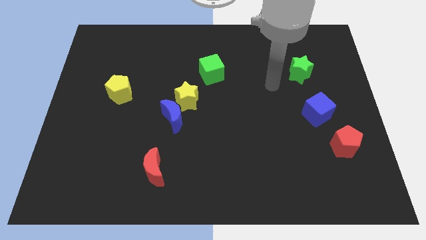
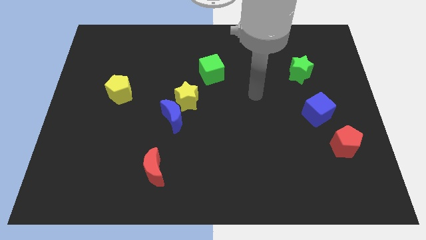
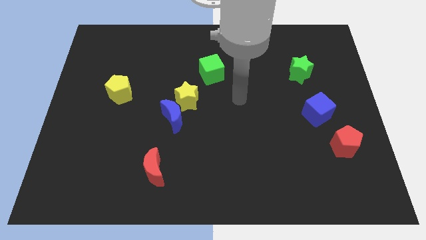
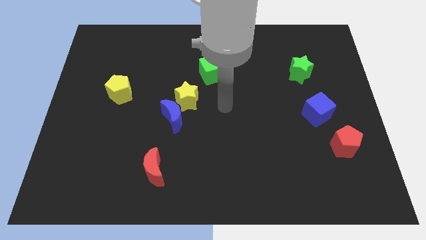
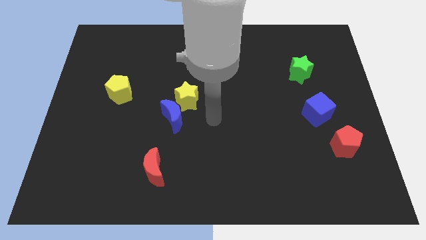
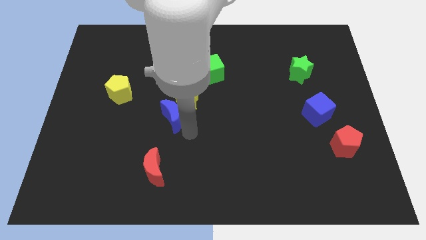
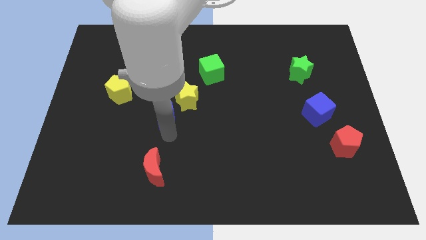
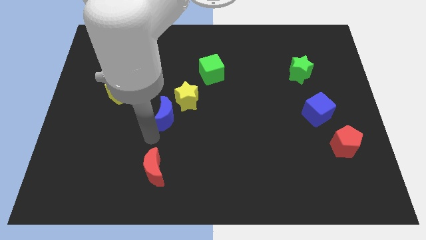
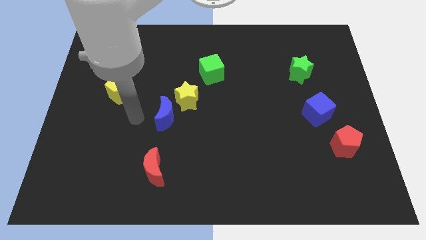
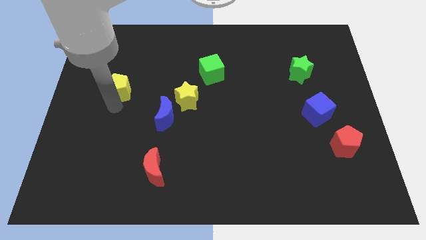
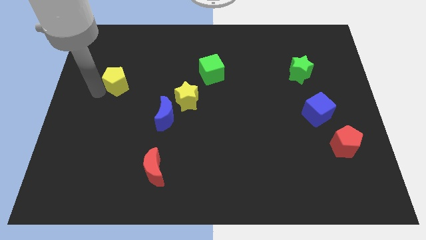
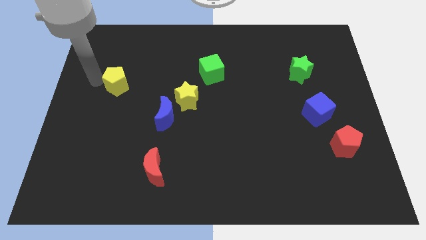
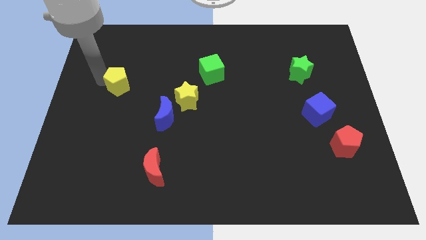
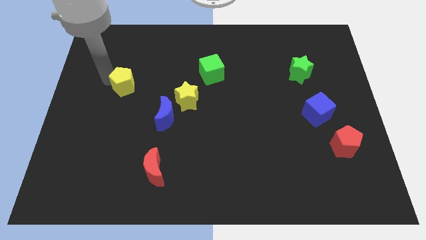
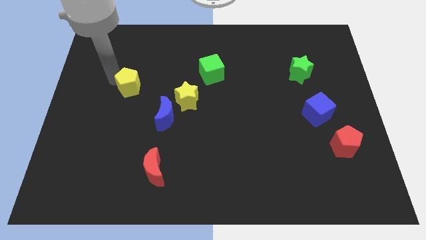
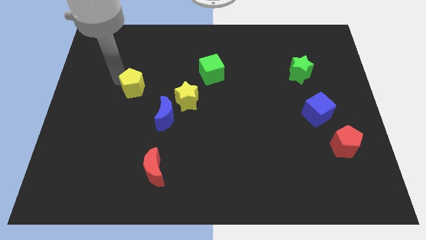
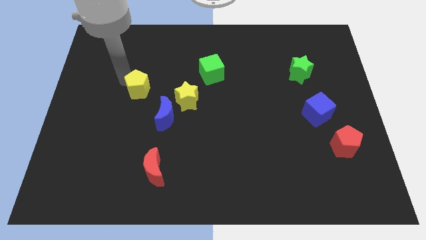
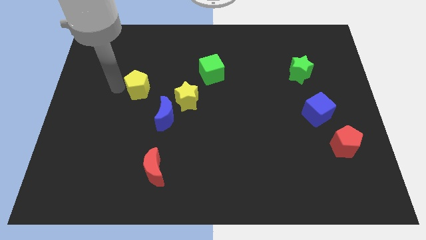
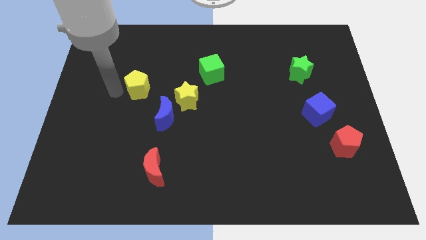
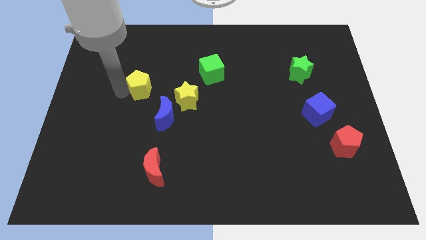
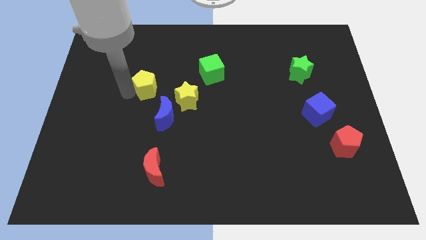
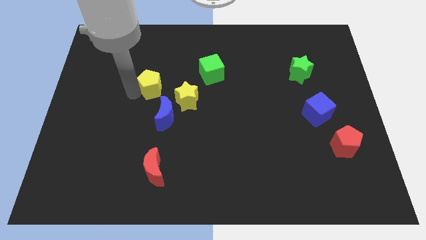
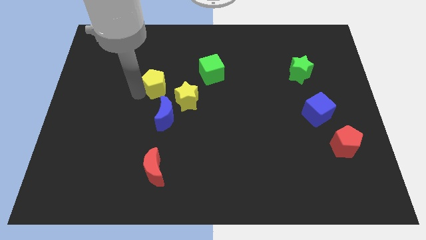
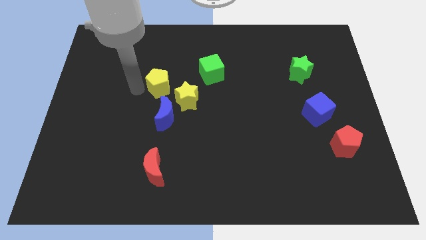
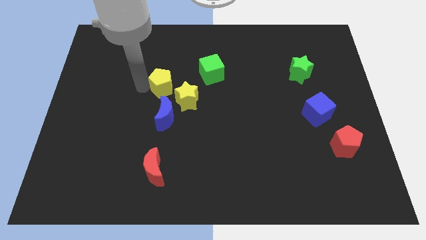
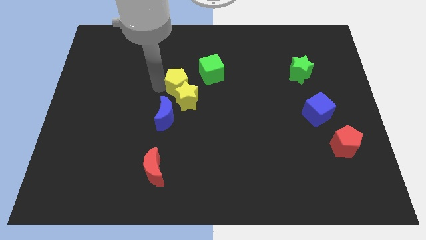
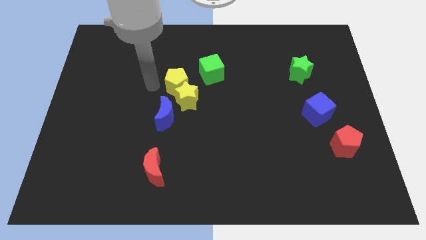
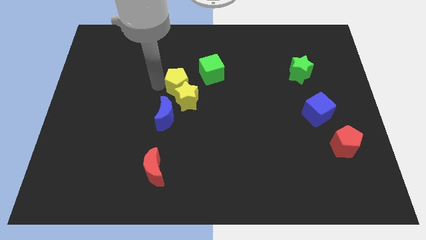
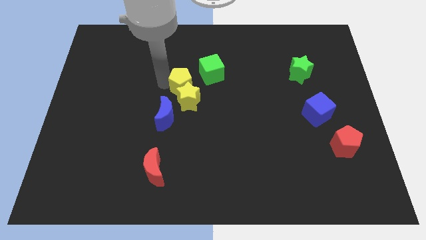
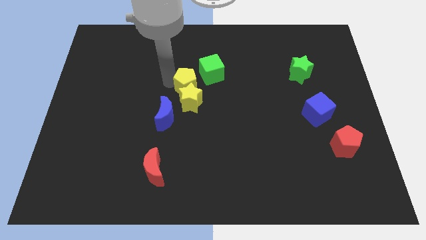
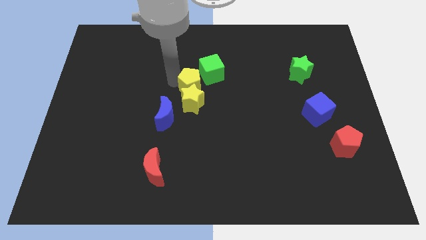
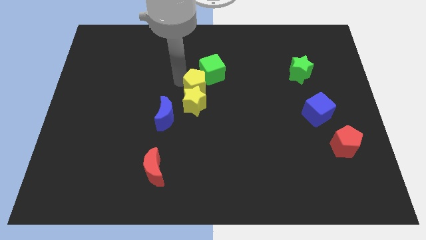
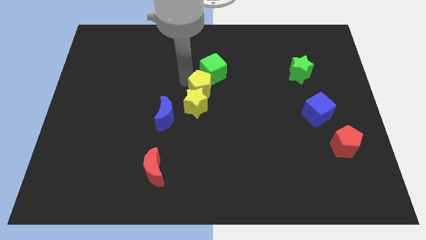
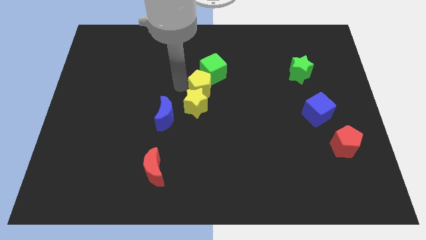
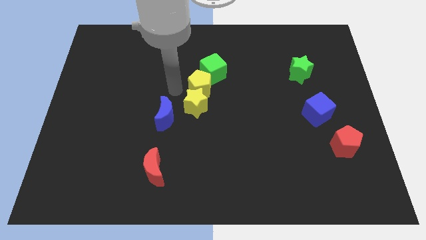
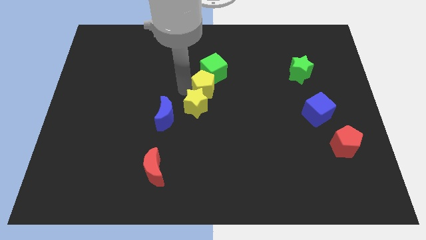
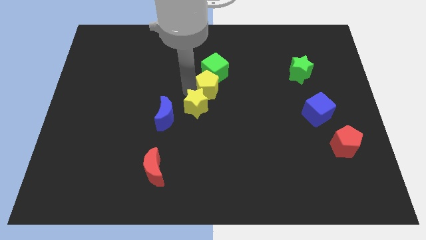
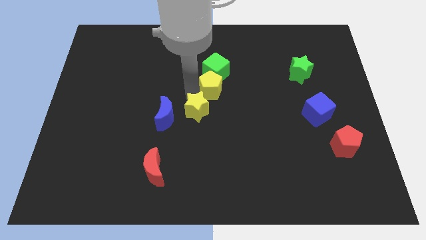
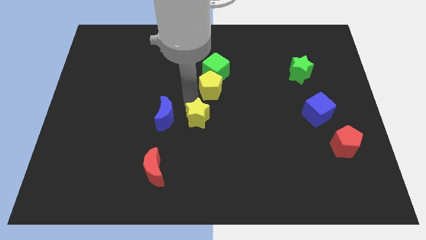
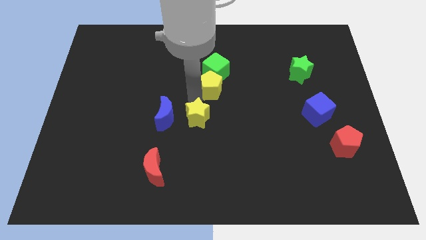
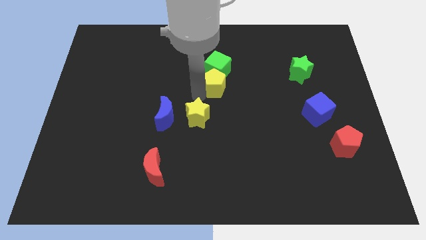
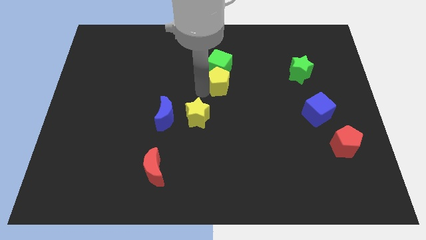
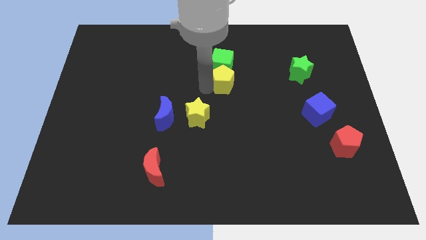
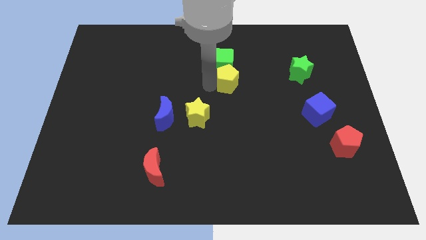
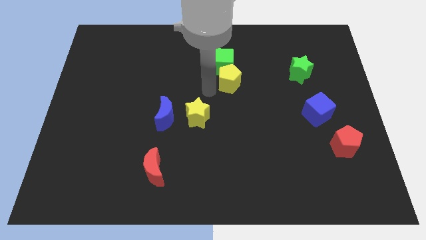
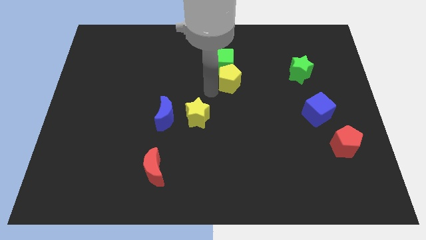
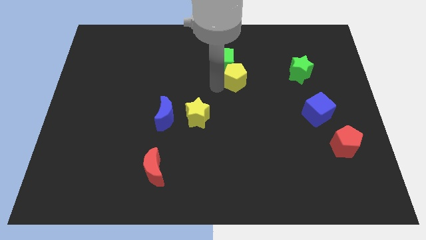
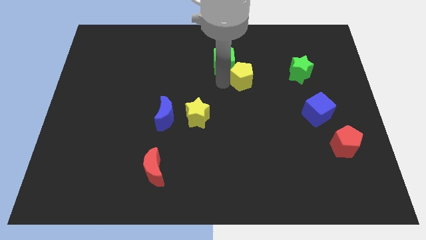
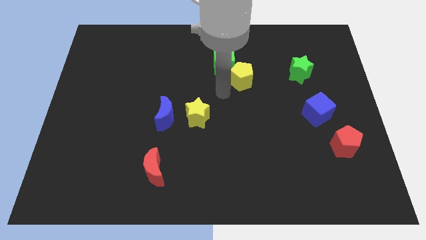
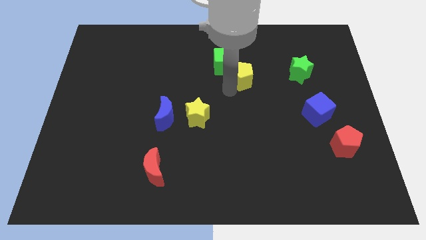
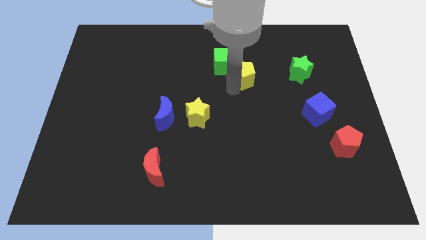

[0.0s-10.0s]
put the yellow pentagon to the right side of the green cube

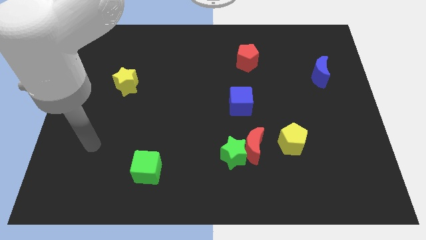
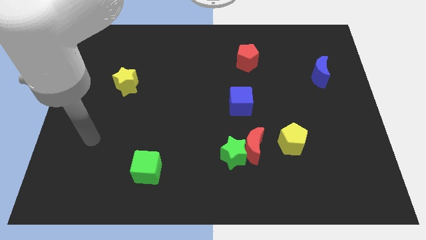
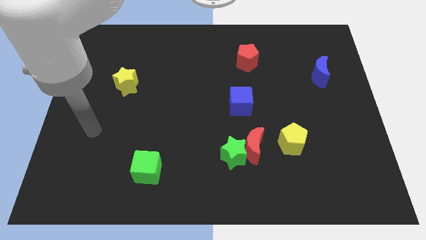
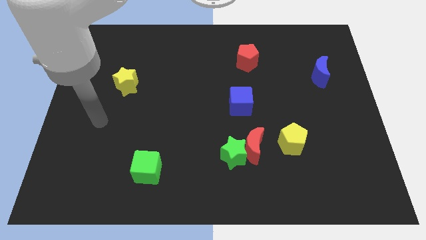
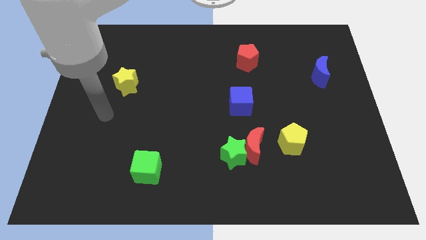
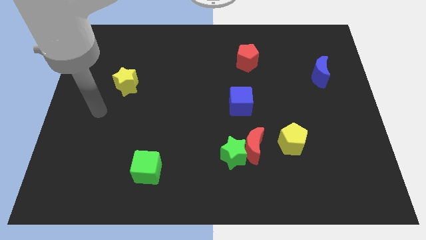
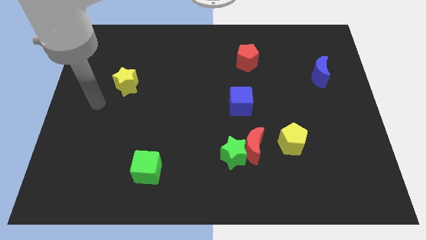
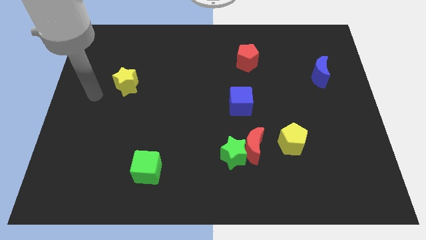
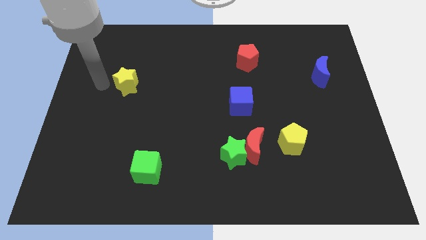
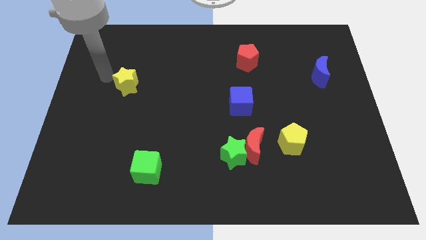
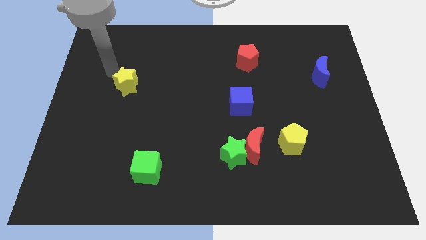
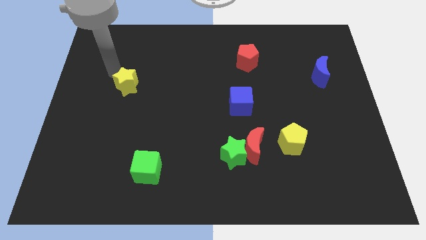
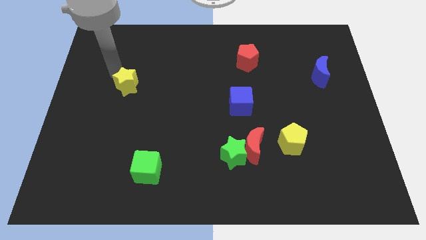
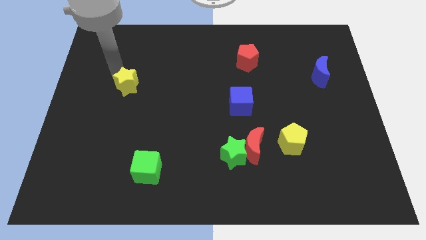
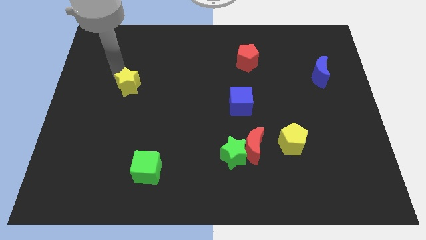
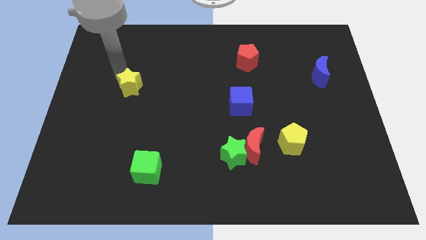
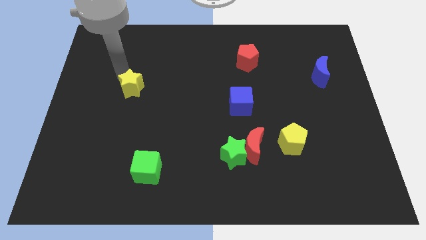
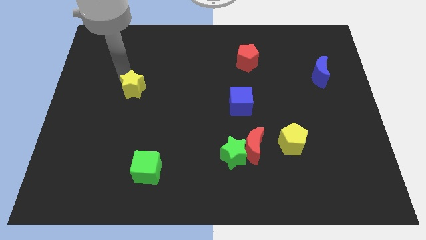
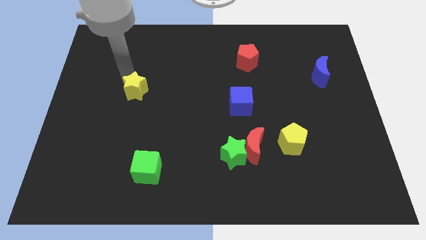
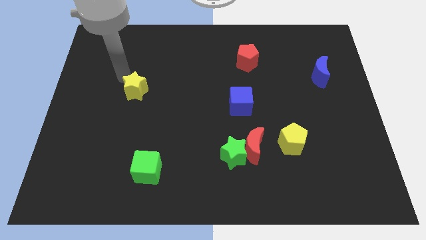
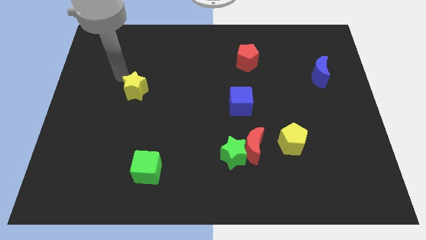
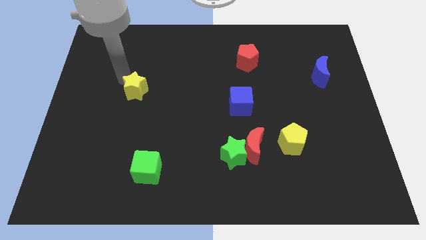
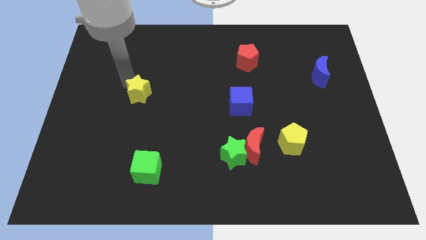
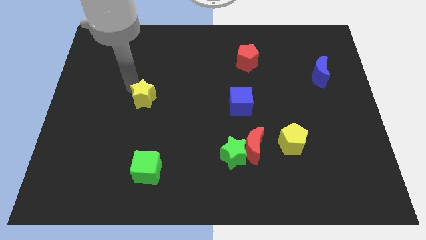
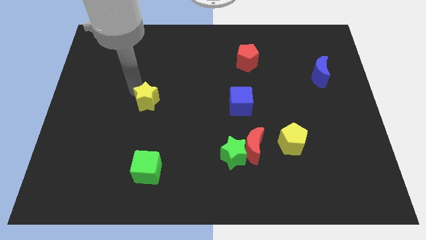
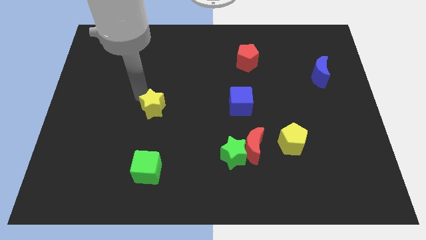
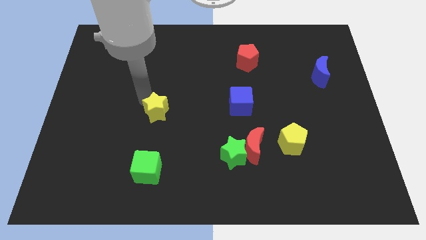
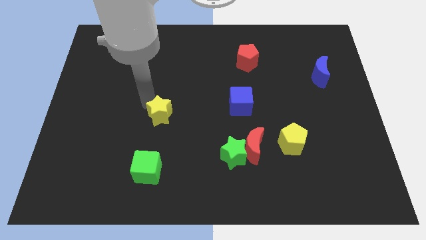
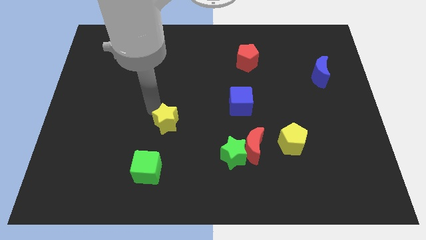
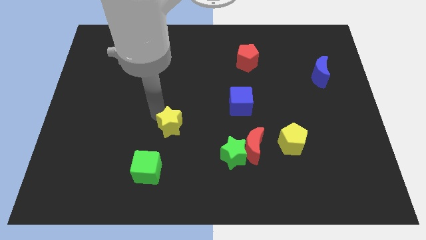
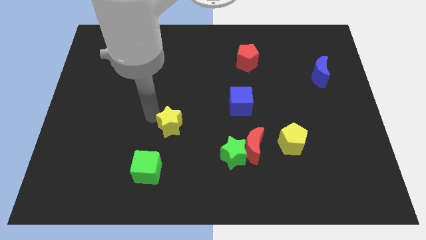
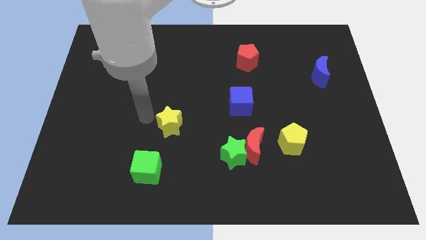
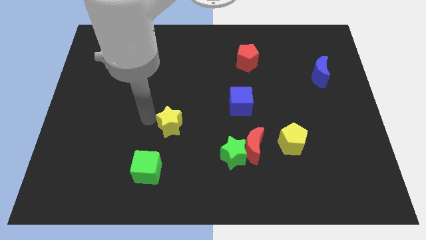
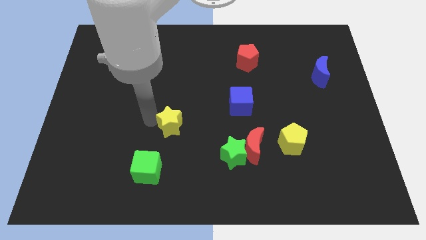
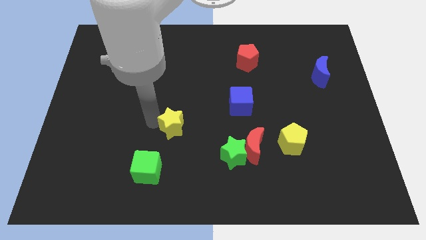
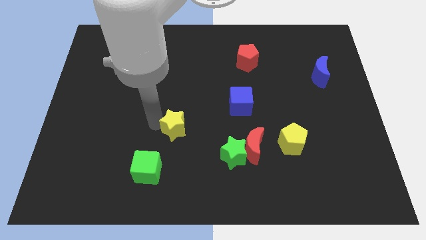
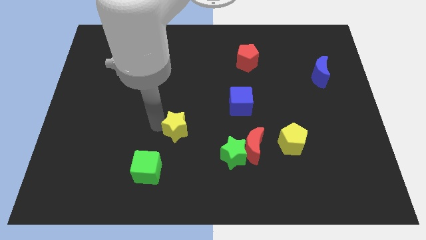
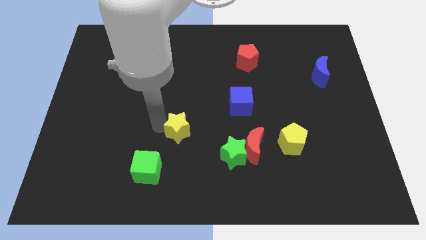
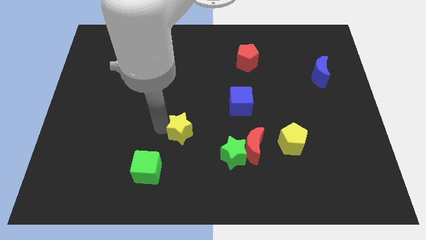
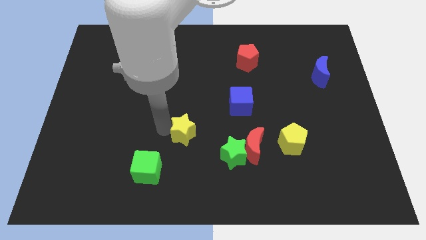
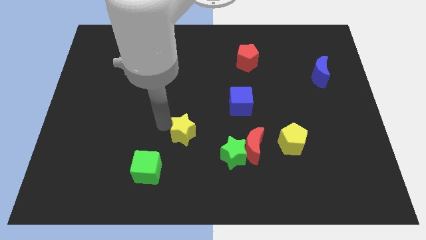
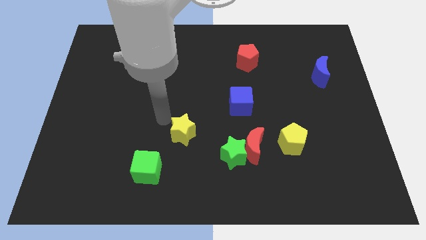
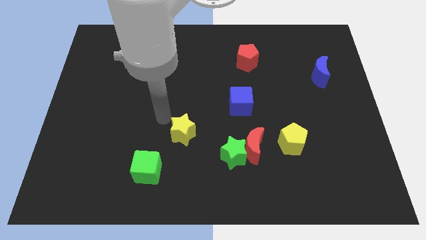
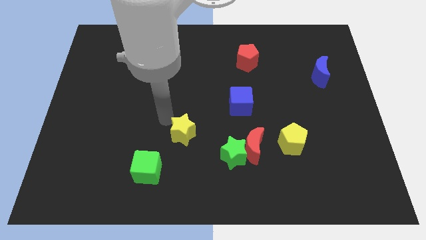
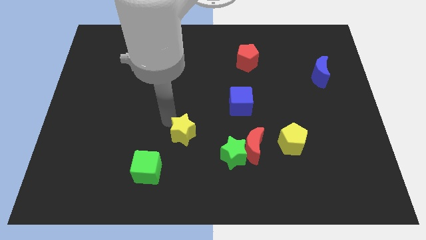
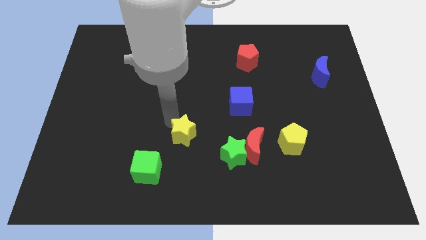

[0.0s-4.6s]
push the yellow star to the left side of the red moon
